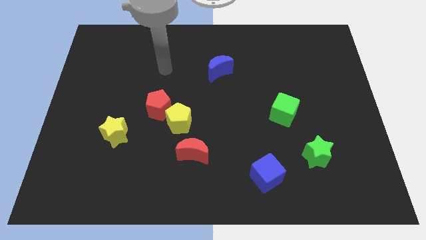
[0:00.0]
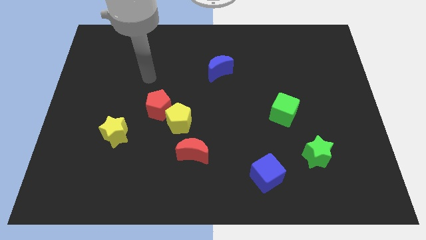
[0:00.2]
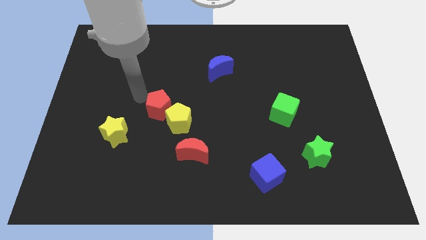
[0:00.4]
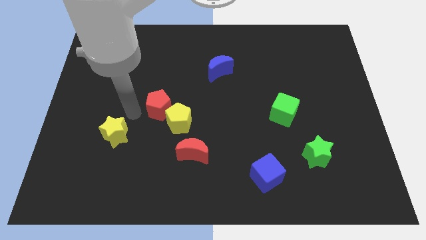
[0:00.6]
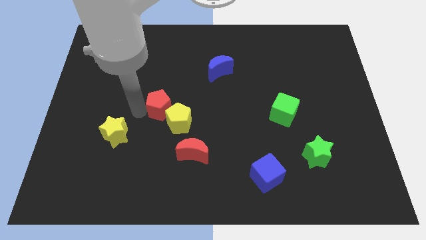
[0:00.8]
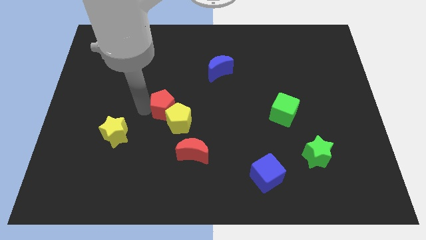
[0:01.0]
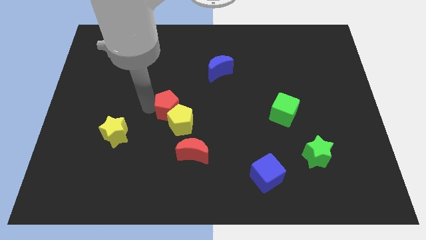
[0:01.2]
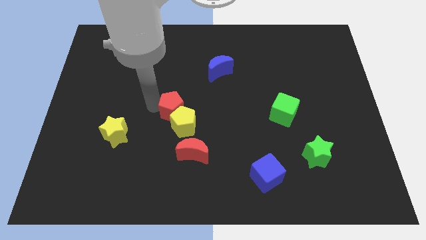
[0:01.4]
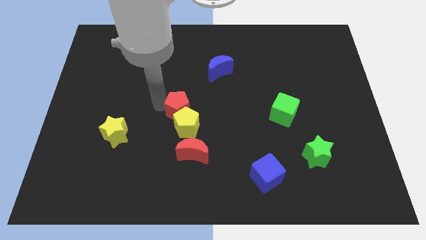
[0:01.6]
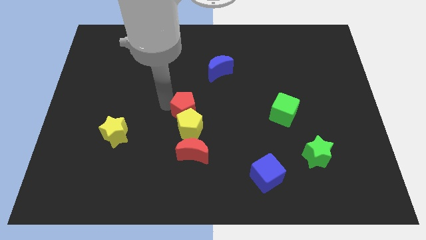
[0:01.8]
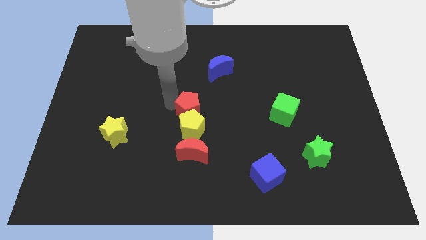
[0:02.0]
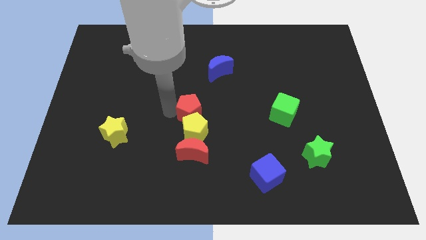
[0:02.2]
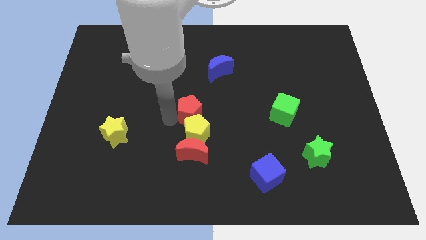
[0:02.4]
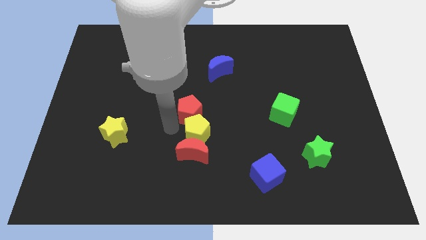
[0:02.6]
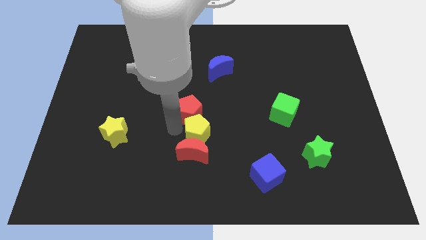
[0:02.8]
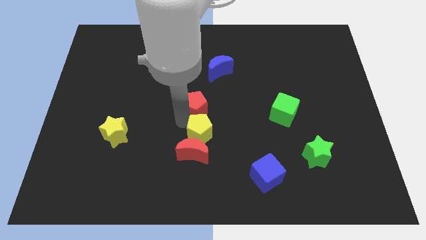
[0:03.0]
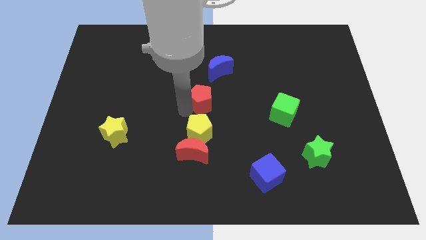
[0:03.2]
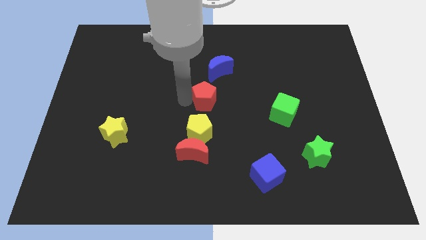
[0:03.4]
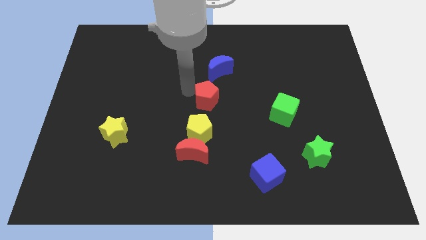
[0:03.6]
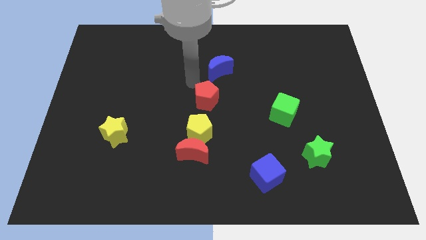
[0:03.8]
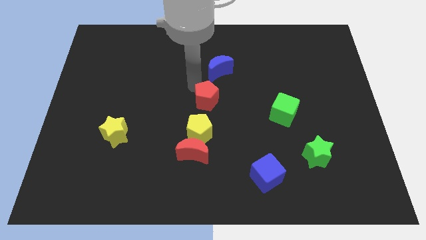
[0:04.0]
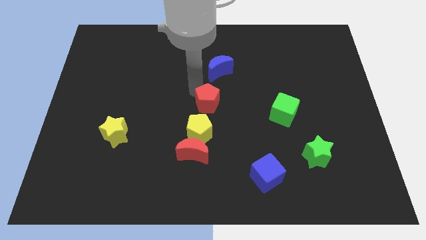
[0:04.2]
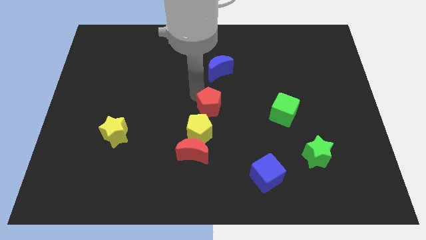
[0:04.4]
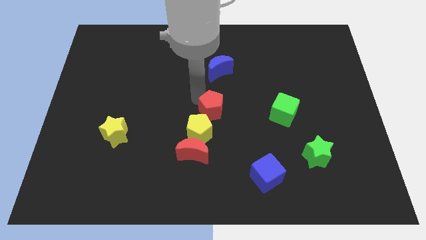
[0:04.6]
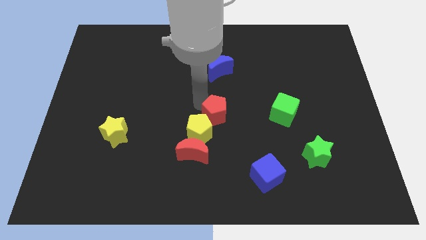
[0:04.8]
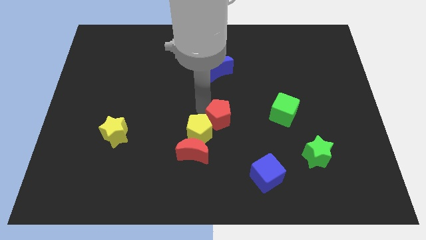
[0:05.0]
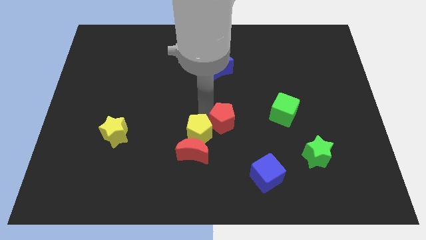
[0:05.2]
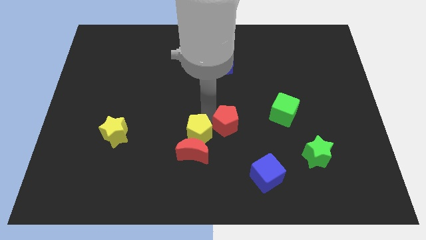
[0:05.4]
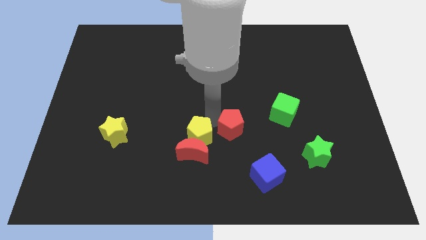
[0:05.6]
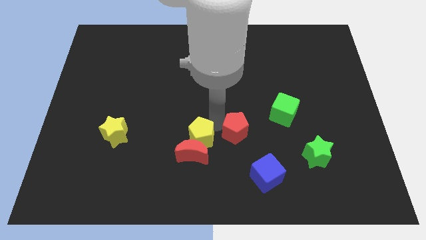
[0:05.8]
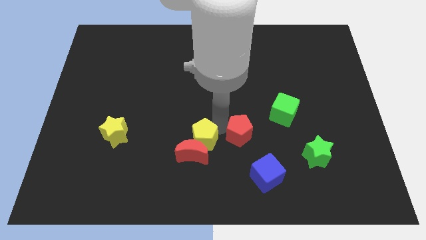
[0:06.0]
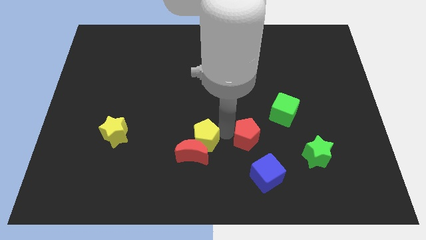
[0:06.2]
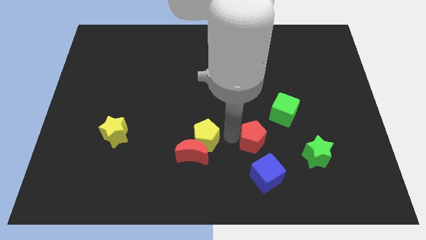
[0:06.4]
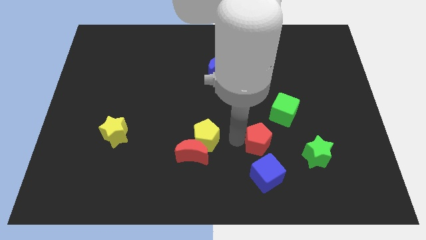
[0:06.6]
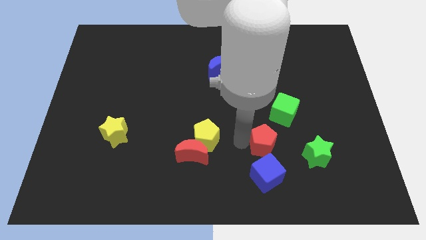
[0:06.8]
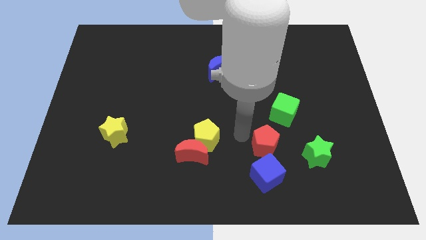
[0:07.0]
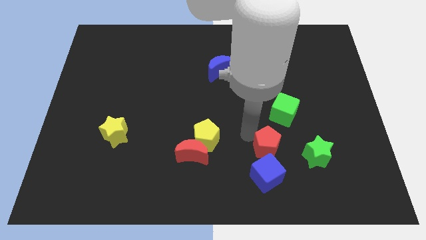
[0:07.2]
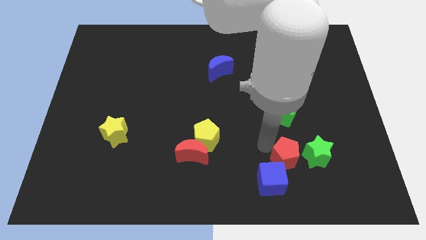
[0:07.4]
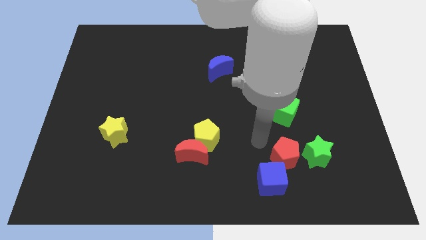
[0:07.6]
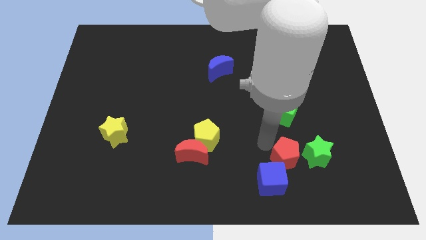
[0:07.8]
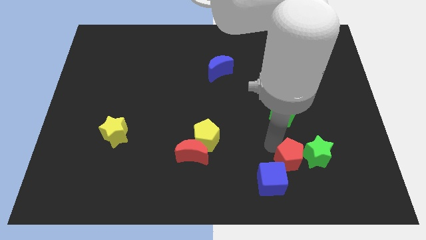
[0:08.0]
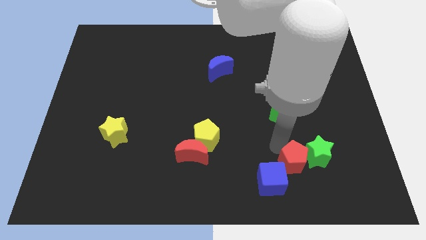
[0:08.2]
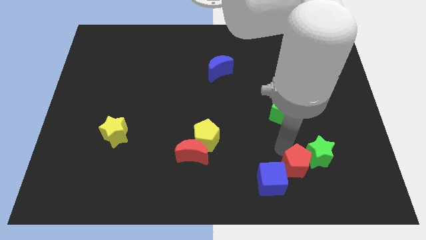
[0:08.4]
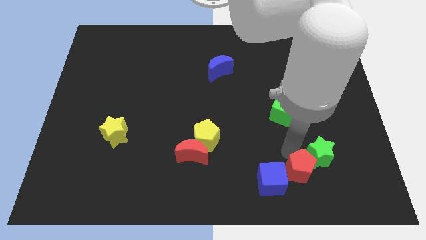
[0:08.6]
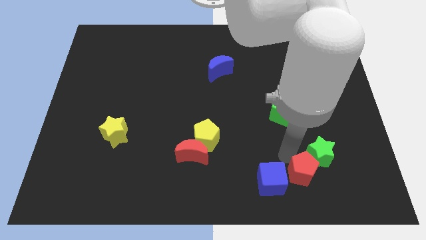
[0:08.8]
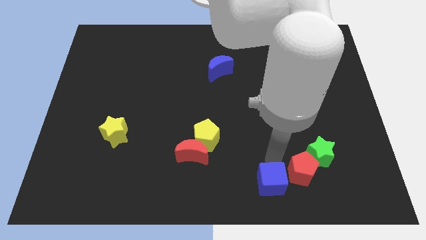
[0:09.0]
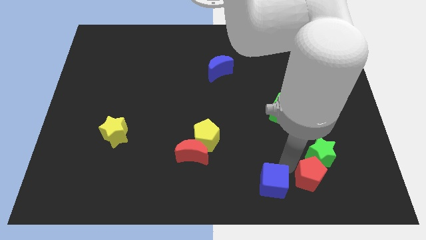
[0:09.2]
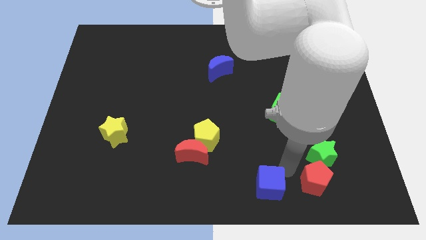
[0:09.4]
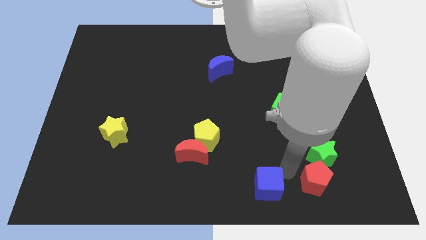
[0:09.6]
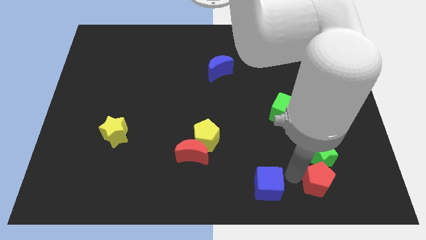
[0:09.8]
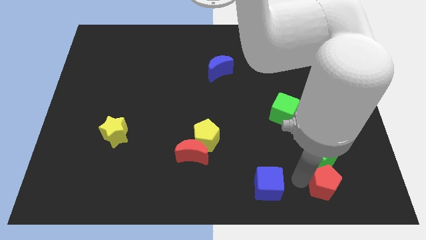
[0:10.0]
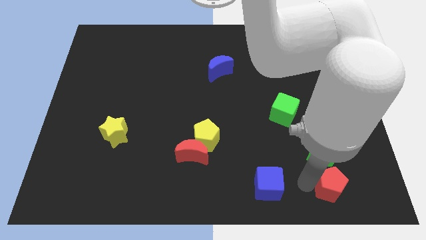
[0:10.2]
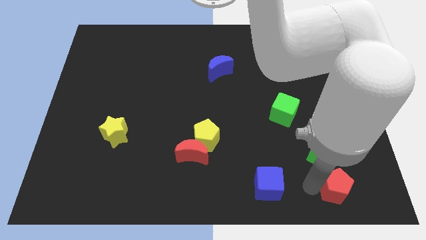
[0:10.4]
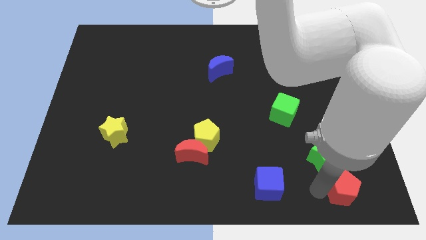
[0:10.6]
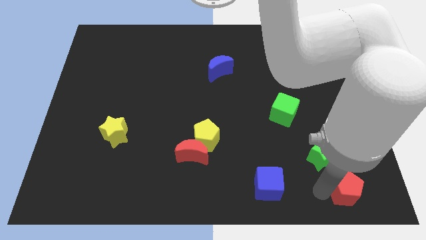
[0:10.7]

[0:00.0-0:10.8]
move the red pentagon to the bottom right

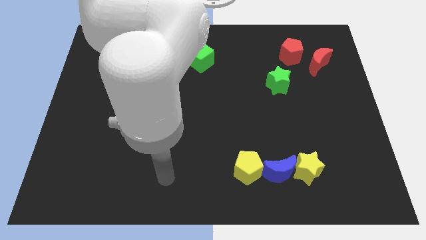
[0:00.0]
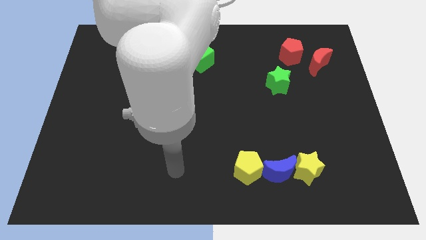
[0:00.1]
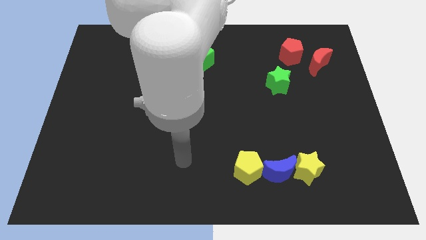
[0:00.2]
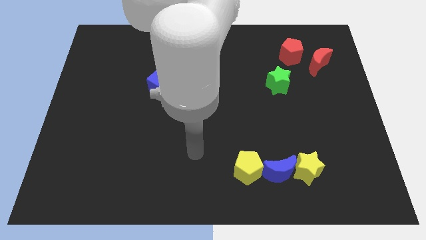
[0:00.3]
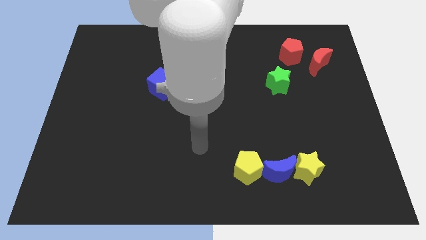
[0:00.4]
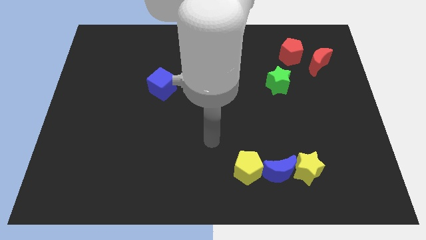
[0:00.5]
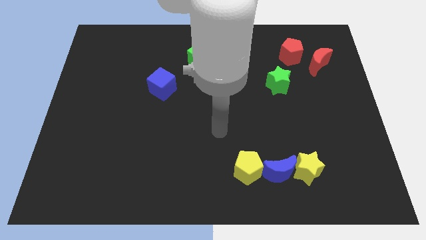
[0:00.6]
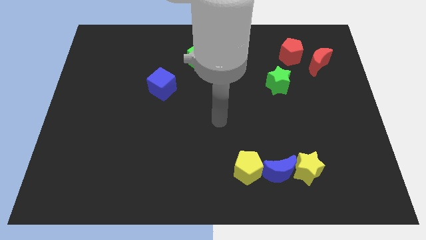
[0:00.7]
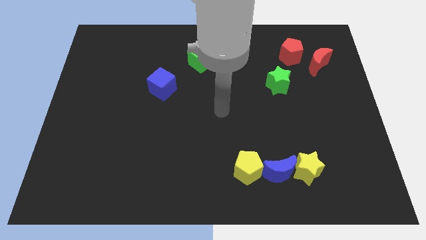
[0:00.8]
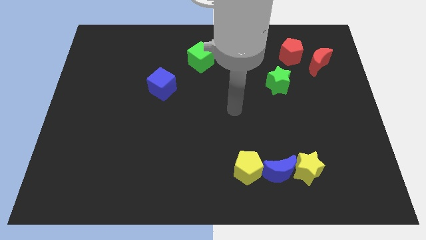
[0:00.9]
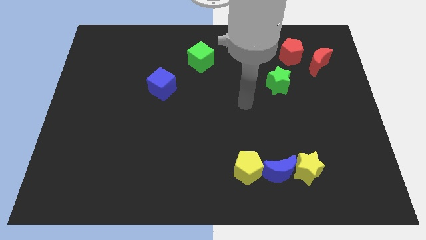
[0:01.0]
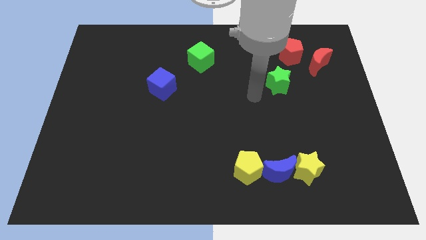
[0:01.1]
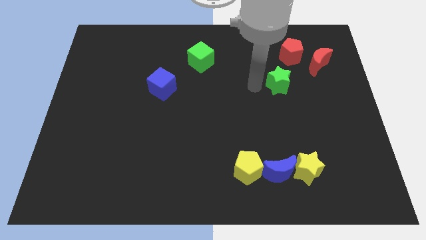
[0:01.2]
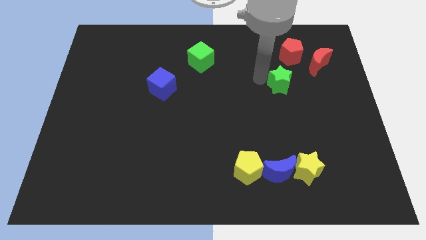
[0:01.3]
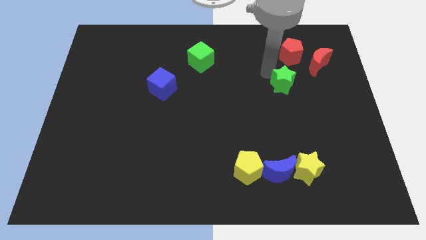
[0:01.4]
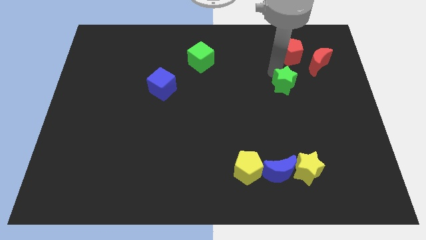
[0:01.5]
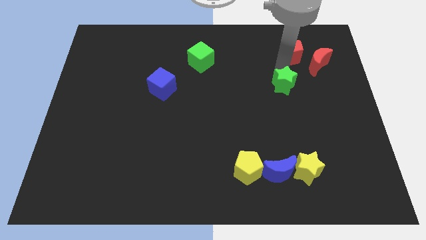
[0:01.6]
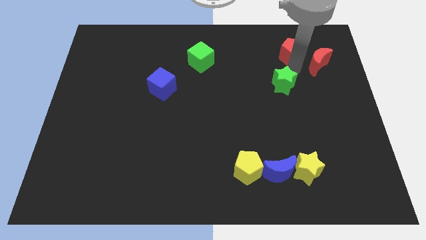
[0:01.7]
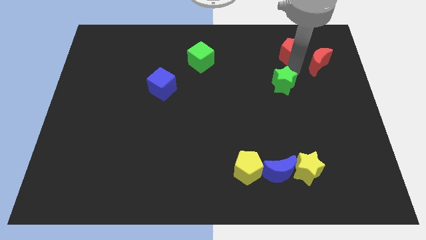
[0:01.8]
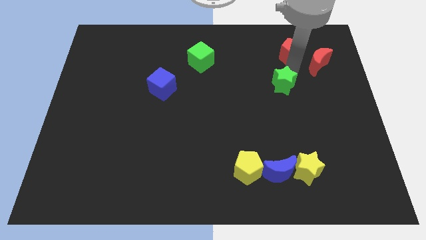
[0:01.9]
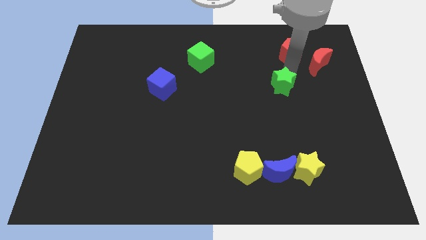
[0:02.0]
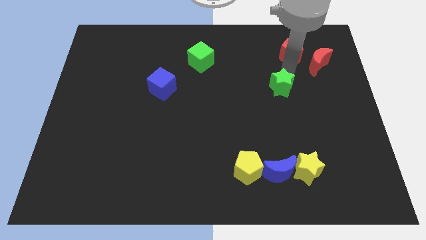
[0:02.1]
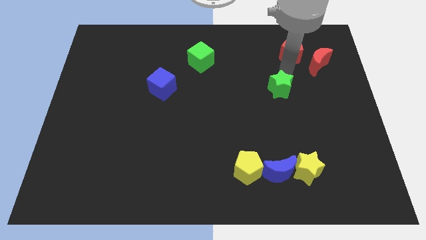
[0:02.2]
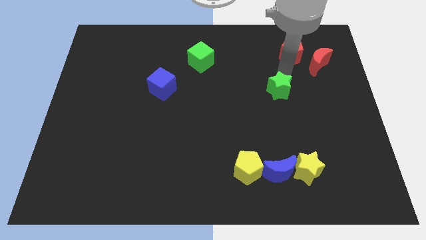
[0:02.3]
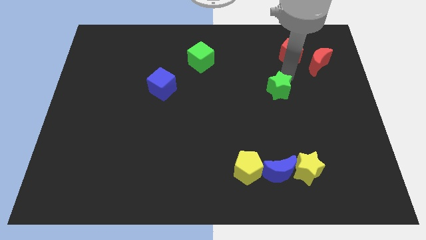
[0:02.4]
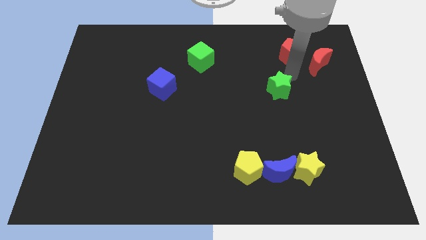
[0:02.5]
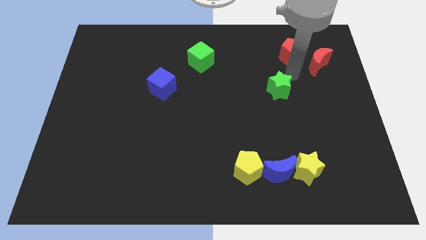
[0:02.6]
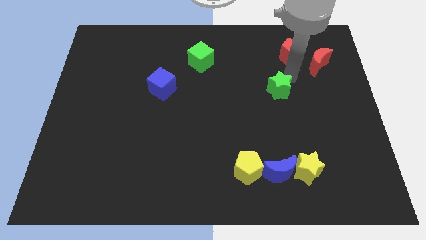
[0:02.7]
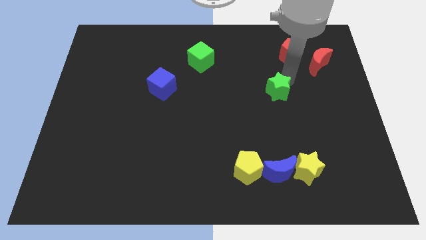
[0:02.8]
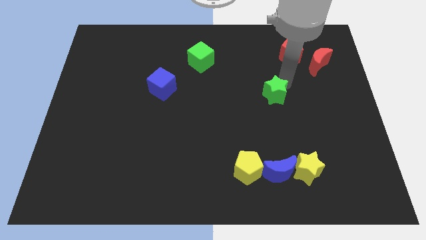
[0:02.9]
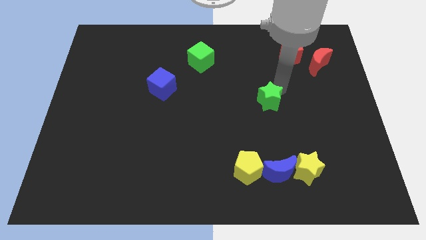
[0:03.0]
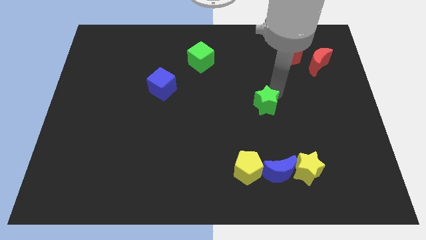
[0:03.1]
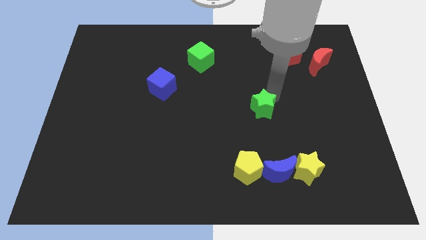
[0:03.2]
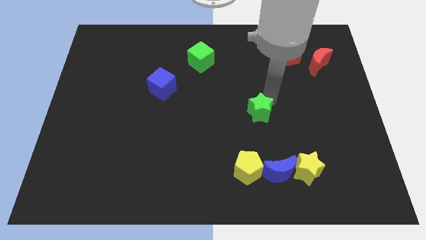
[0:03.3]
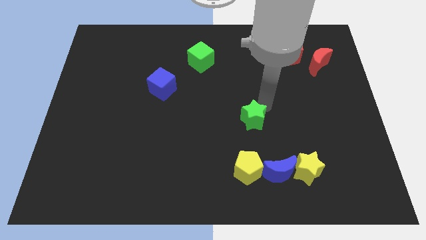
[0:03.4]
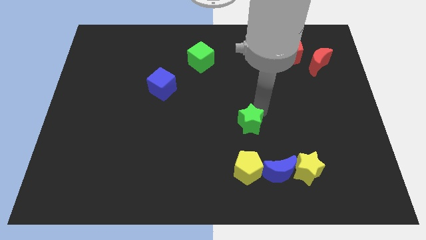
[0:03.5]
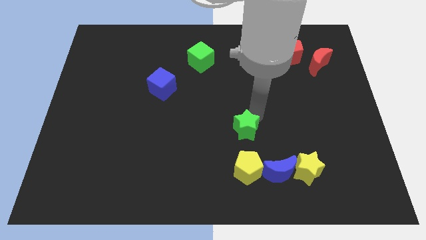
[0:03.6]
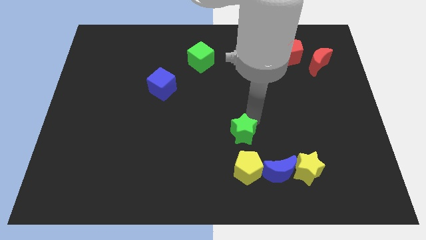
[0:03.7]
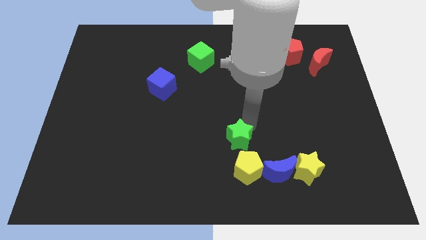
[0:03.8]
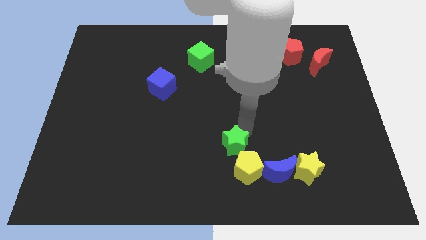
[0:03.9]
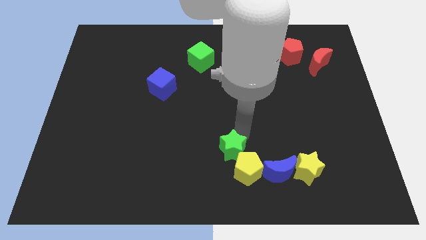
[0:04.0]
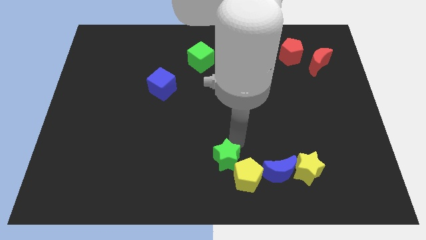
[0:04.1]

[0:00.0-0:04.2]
move the green star to the bottom side
